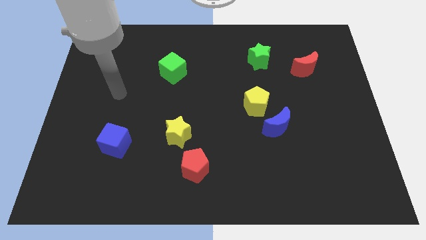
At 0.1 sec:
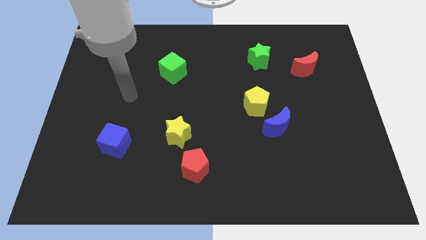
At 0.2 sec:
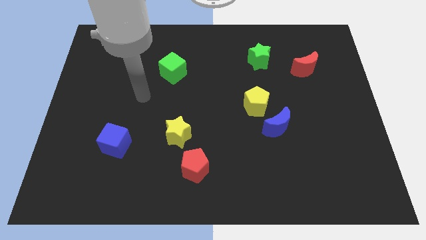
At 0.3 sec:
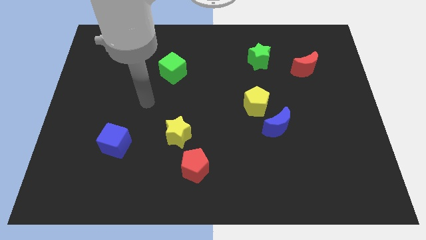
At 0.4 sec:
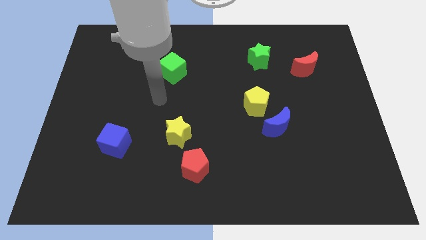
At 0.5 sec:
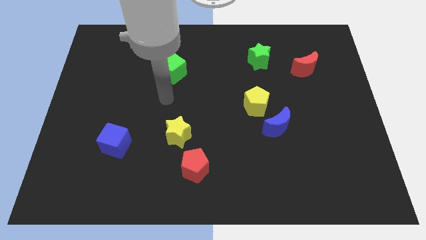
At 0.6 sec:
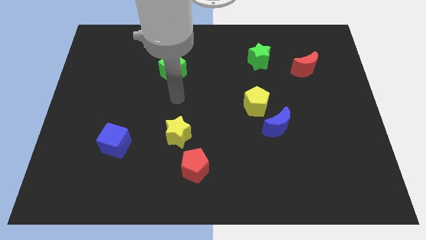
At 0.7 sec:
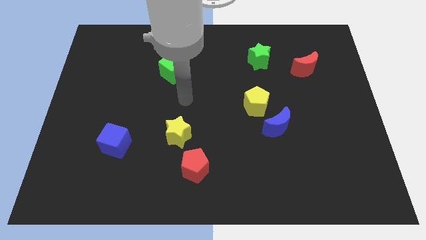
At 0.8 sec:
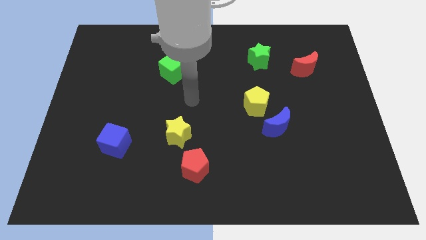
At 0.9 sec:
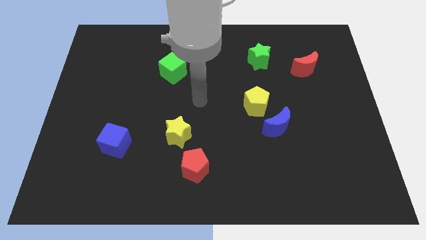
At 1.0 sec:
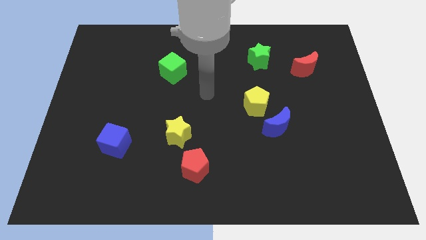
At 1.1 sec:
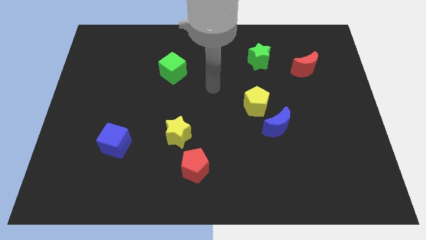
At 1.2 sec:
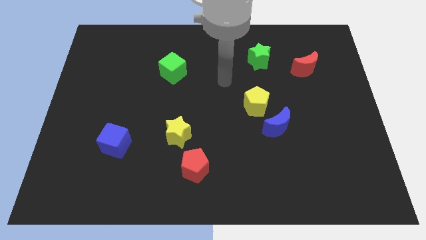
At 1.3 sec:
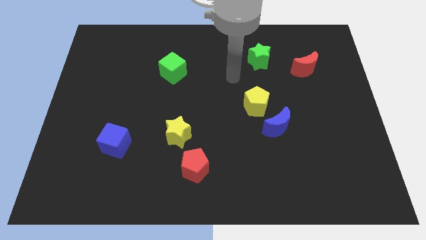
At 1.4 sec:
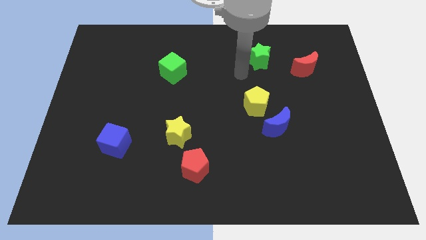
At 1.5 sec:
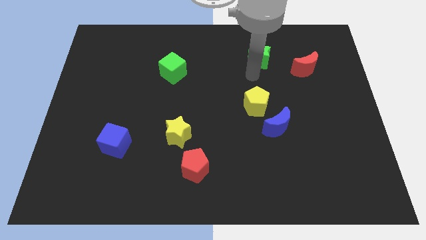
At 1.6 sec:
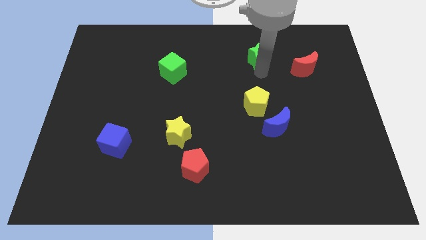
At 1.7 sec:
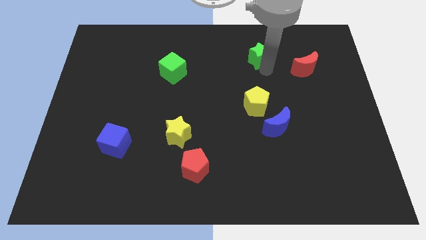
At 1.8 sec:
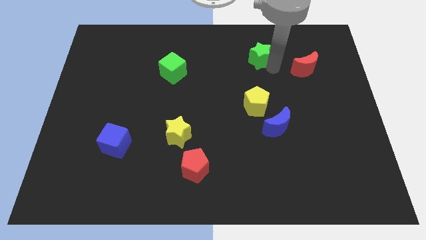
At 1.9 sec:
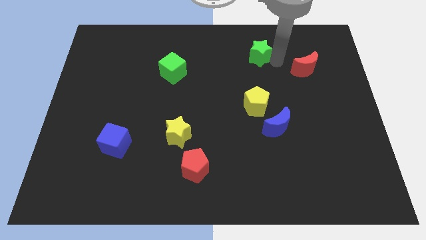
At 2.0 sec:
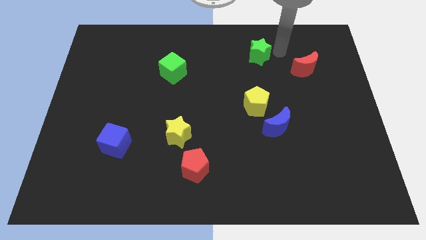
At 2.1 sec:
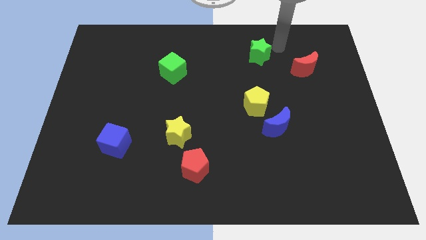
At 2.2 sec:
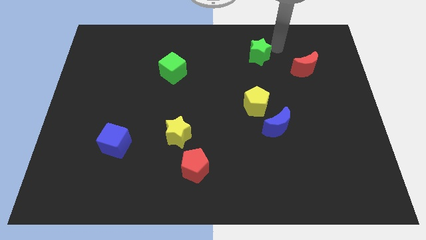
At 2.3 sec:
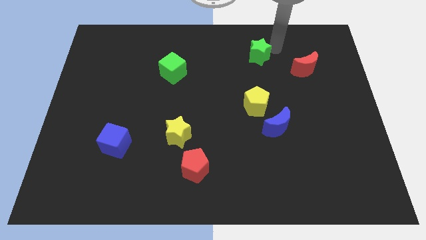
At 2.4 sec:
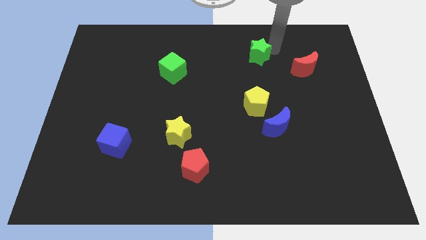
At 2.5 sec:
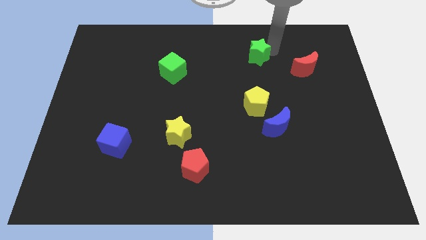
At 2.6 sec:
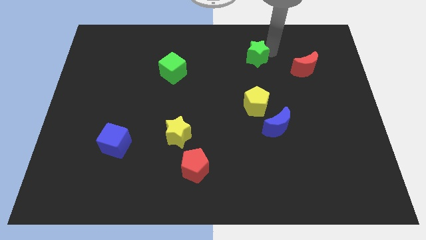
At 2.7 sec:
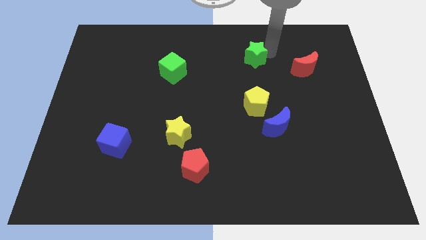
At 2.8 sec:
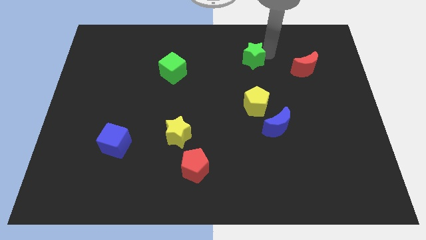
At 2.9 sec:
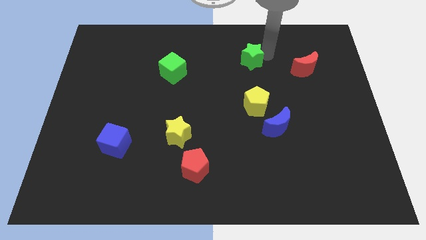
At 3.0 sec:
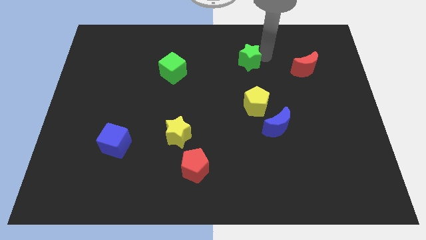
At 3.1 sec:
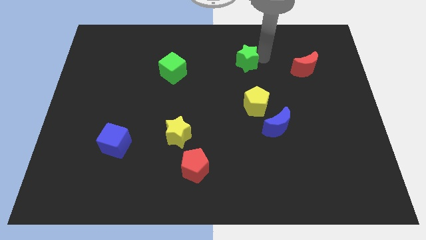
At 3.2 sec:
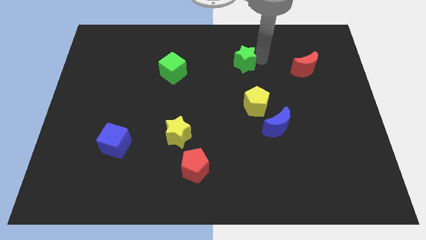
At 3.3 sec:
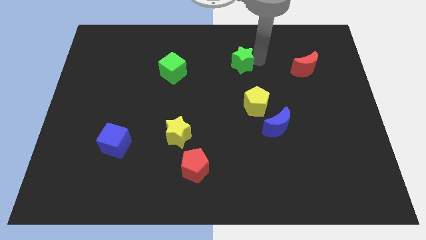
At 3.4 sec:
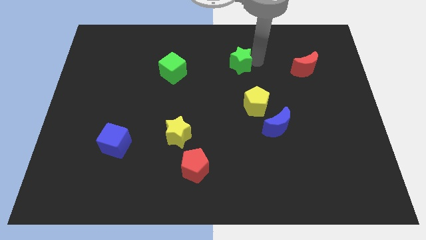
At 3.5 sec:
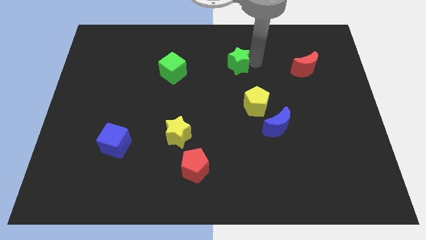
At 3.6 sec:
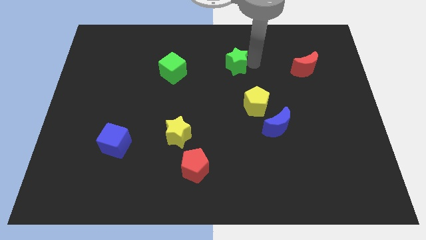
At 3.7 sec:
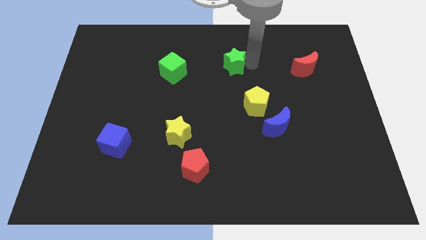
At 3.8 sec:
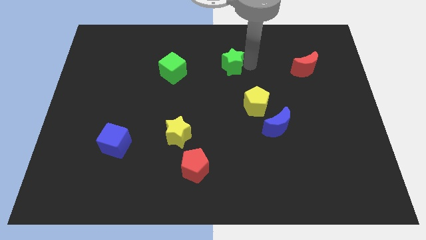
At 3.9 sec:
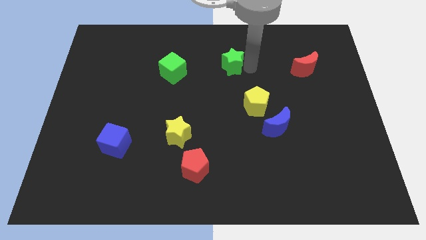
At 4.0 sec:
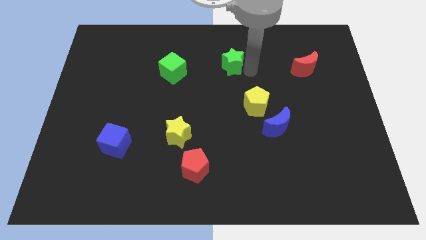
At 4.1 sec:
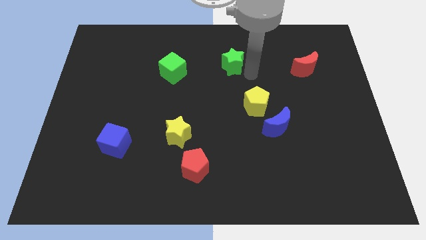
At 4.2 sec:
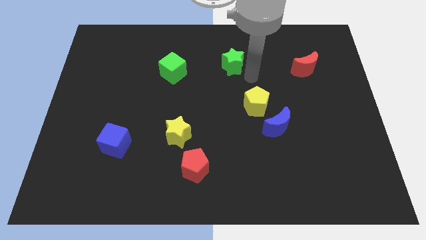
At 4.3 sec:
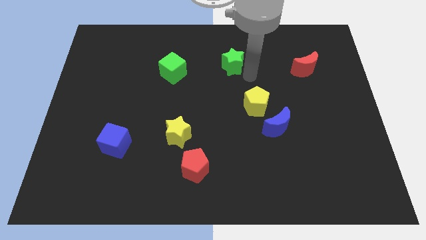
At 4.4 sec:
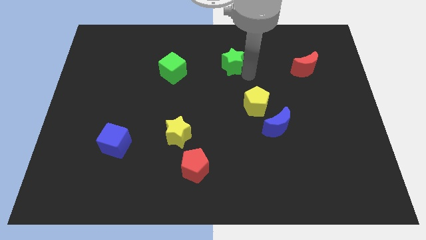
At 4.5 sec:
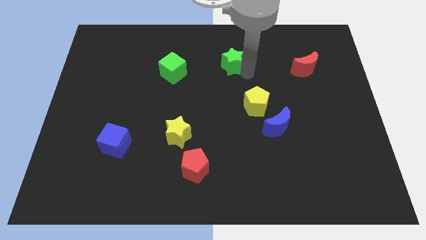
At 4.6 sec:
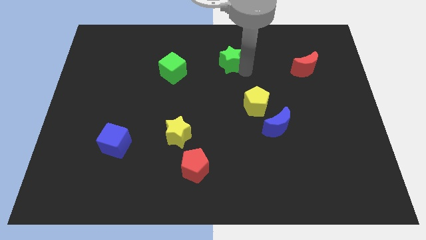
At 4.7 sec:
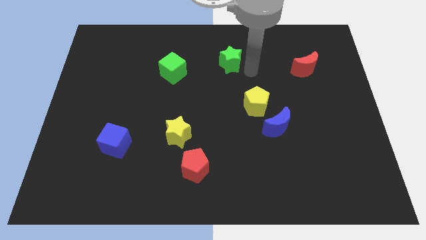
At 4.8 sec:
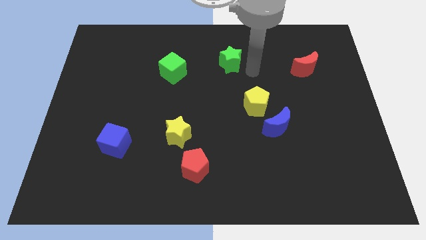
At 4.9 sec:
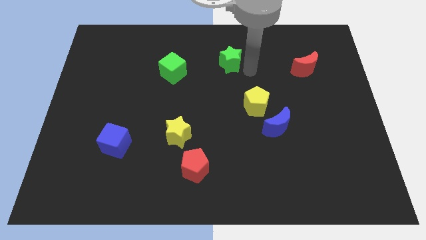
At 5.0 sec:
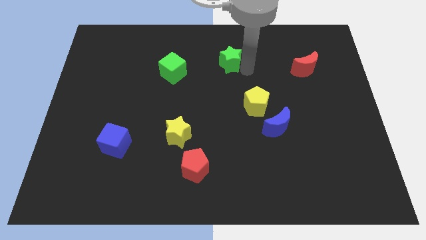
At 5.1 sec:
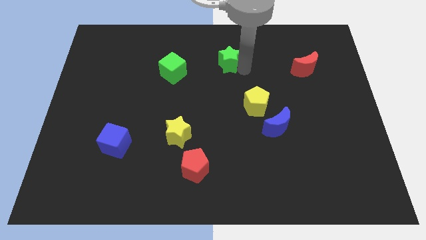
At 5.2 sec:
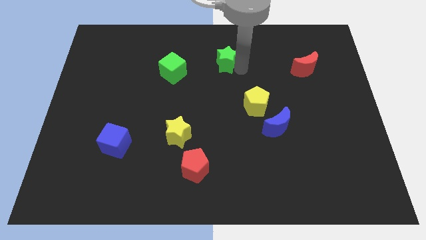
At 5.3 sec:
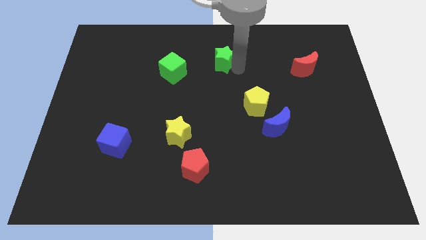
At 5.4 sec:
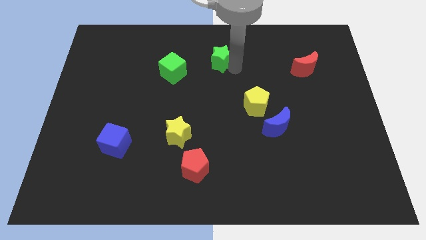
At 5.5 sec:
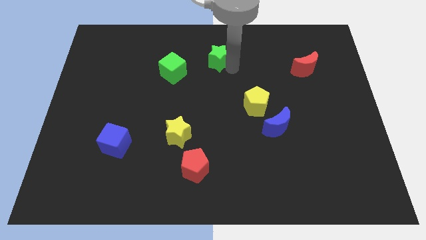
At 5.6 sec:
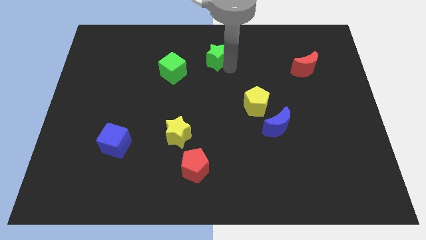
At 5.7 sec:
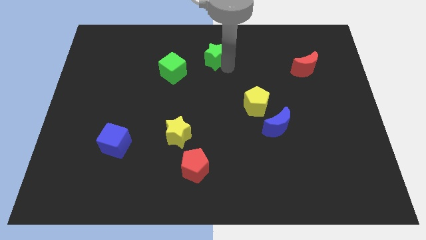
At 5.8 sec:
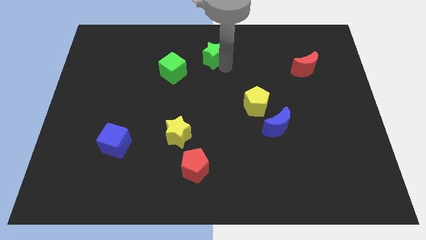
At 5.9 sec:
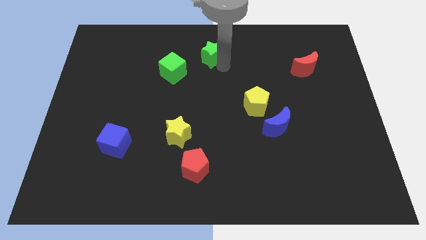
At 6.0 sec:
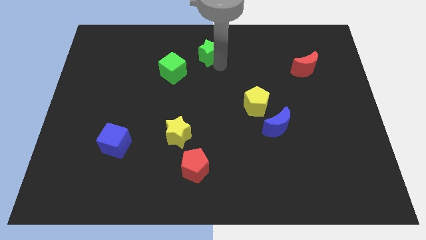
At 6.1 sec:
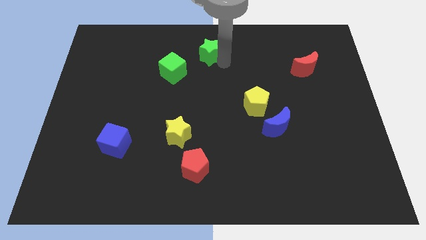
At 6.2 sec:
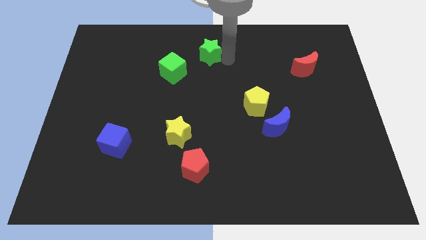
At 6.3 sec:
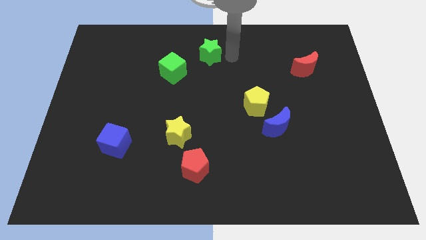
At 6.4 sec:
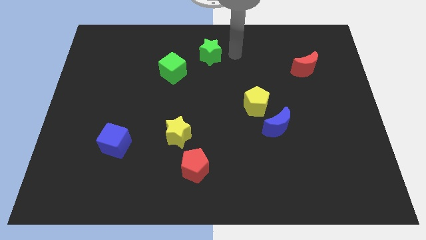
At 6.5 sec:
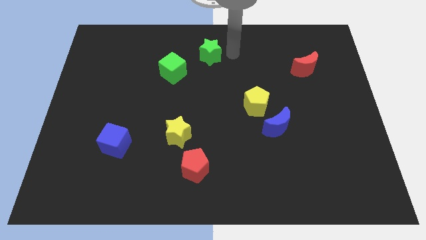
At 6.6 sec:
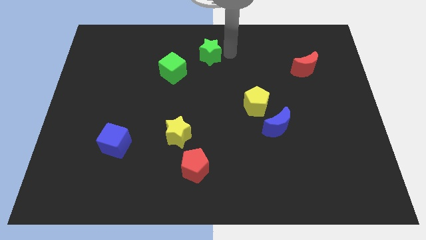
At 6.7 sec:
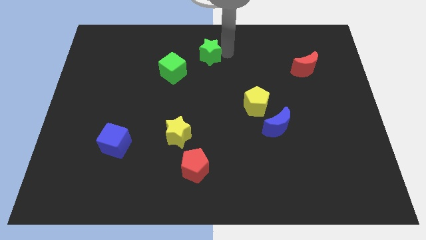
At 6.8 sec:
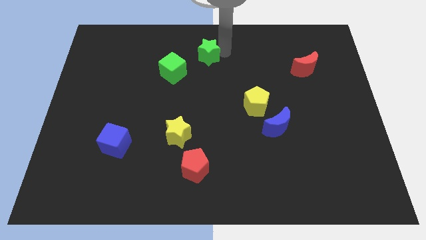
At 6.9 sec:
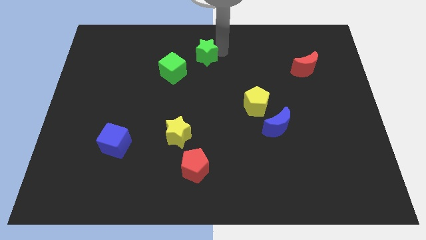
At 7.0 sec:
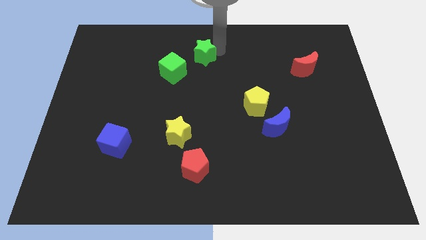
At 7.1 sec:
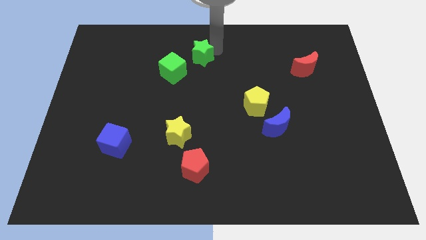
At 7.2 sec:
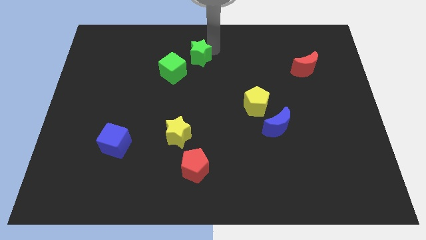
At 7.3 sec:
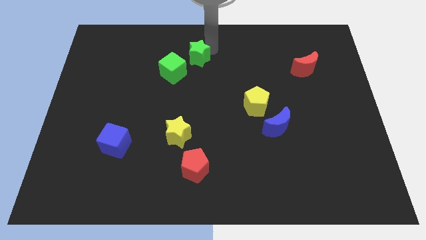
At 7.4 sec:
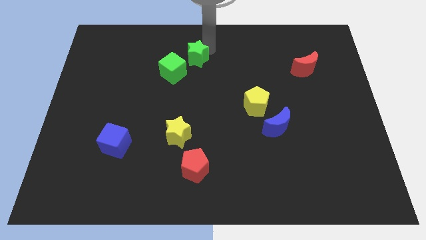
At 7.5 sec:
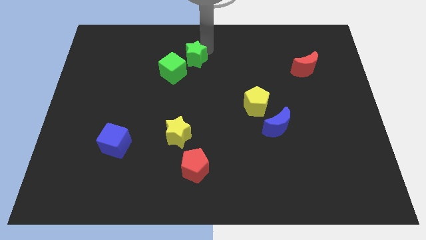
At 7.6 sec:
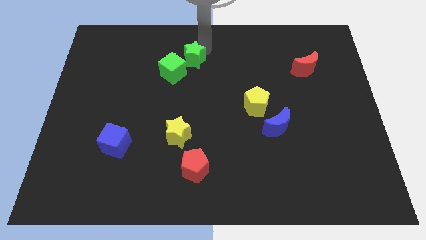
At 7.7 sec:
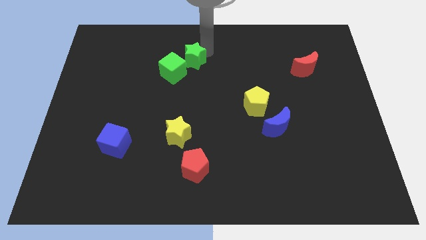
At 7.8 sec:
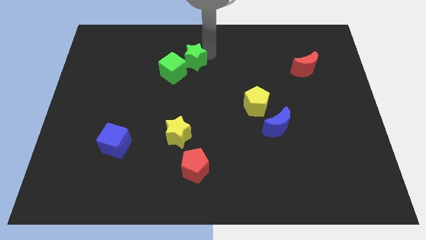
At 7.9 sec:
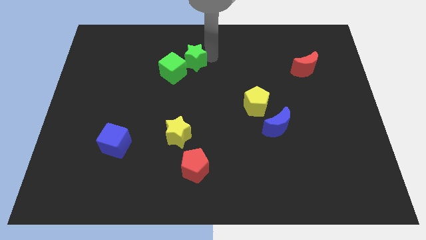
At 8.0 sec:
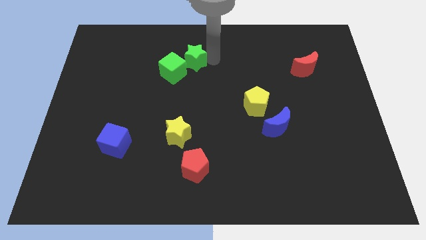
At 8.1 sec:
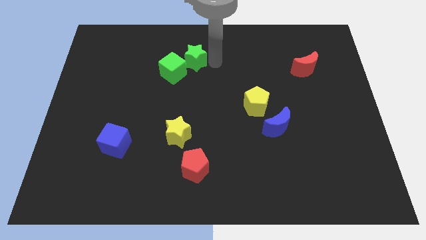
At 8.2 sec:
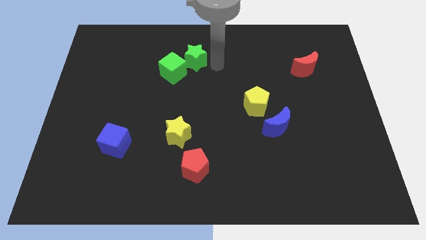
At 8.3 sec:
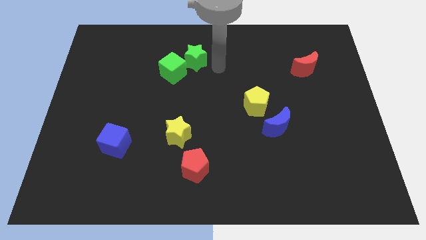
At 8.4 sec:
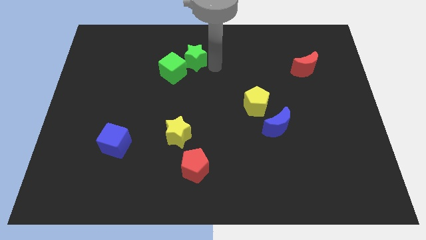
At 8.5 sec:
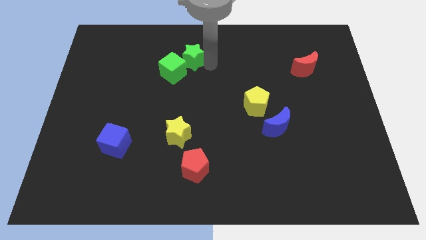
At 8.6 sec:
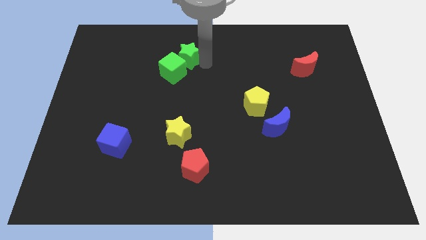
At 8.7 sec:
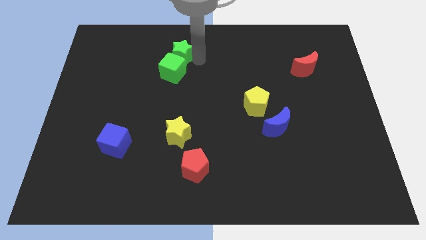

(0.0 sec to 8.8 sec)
slide the green star left
